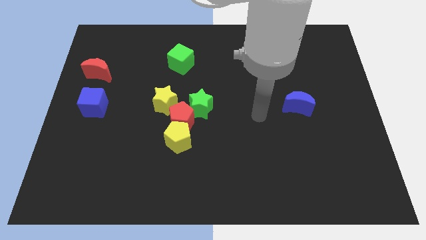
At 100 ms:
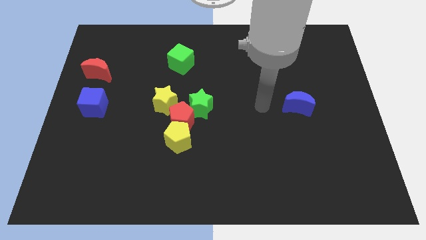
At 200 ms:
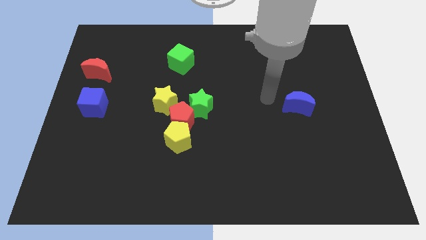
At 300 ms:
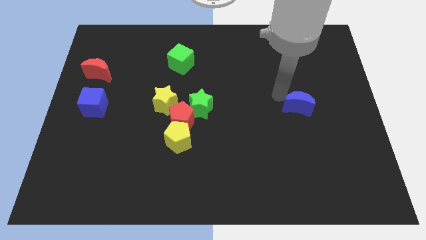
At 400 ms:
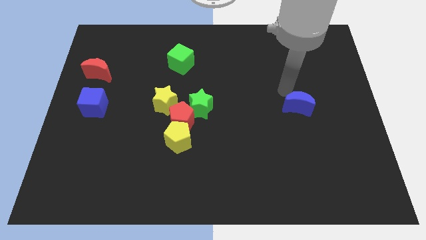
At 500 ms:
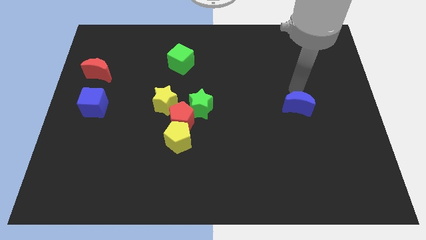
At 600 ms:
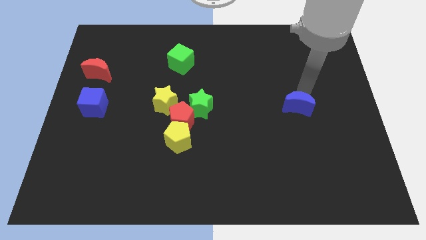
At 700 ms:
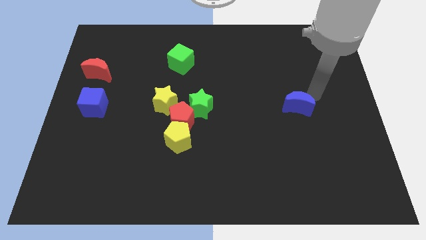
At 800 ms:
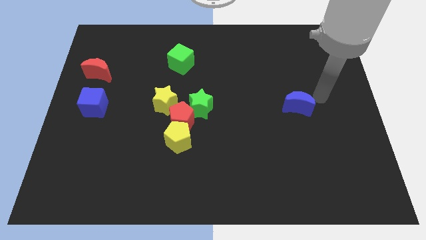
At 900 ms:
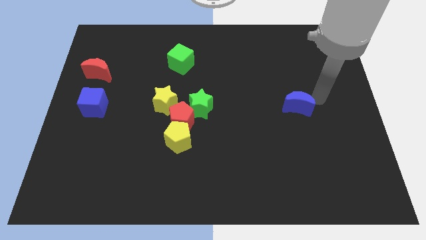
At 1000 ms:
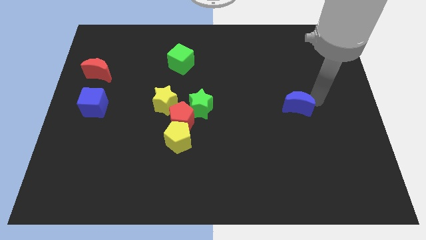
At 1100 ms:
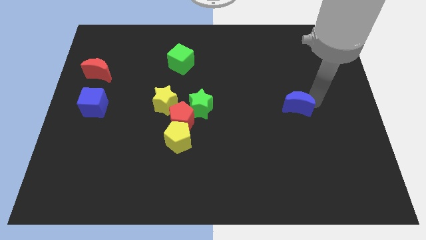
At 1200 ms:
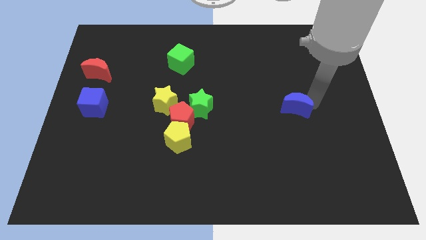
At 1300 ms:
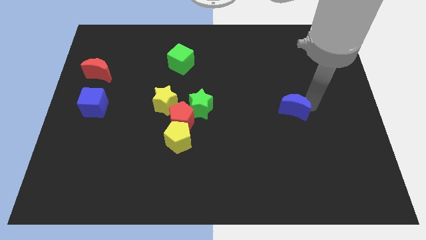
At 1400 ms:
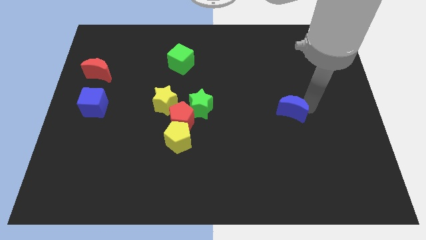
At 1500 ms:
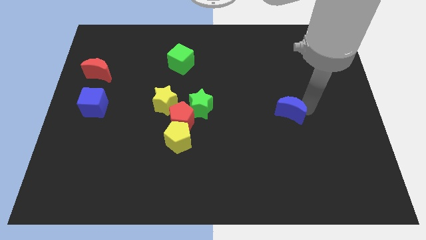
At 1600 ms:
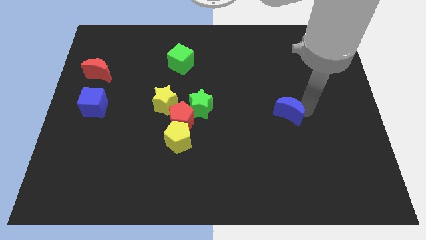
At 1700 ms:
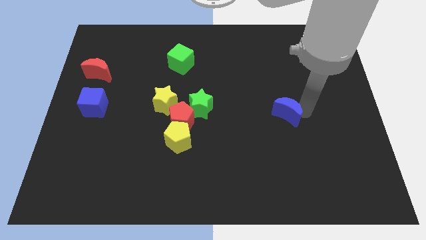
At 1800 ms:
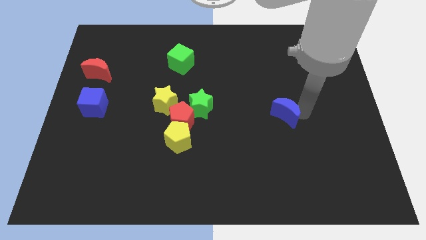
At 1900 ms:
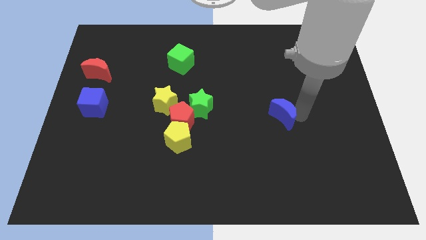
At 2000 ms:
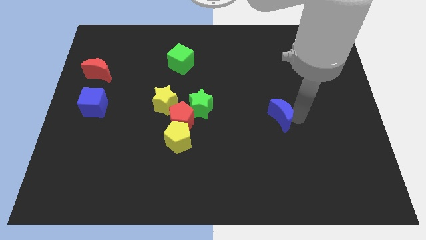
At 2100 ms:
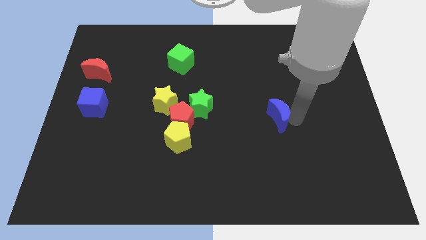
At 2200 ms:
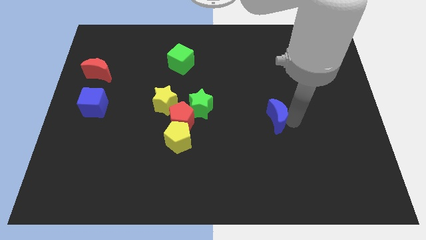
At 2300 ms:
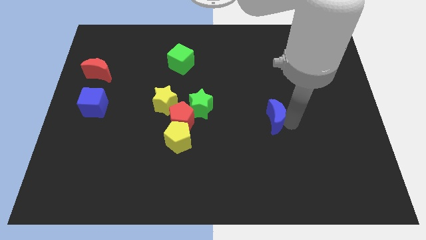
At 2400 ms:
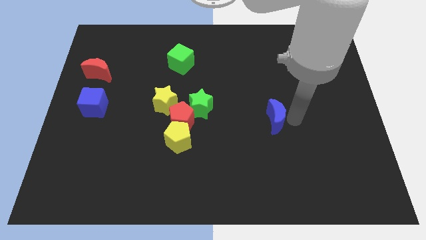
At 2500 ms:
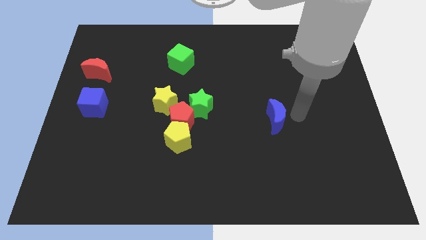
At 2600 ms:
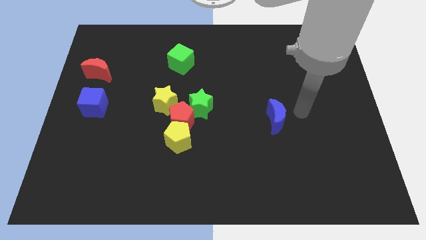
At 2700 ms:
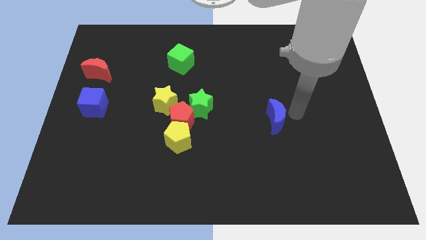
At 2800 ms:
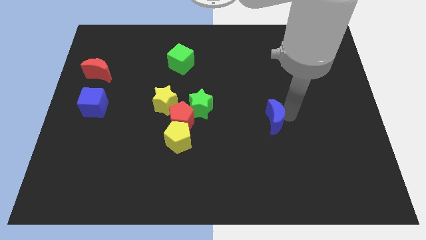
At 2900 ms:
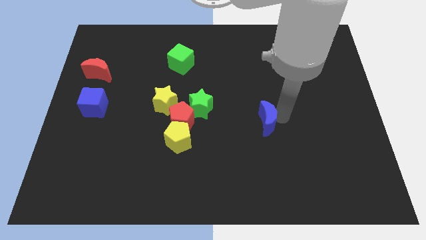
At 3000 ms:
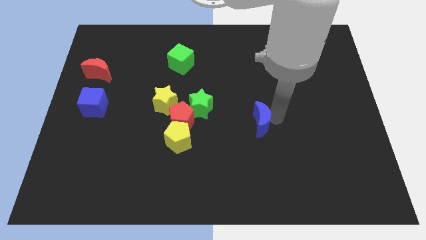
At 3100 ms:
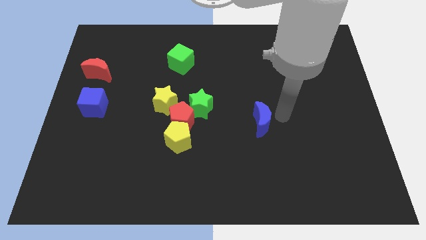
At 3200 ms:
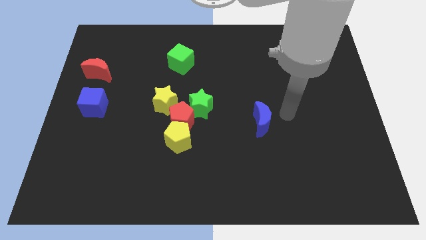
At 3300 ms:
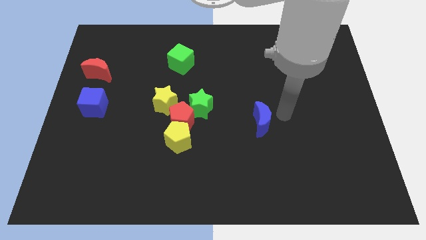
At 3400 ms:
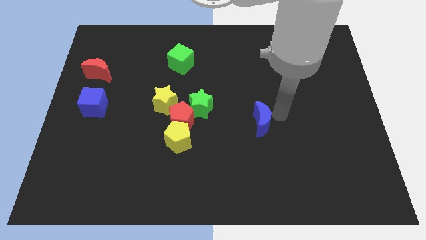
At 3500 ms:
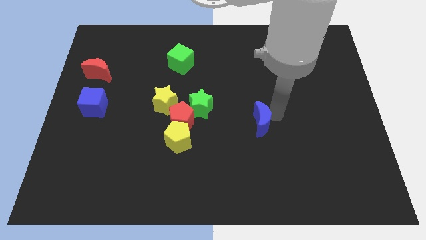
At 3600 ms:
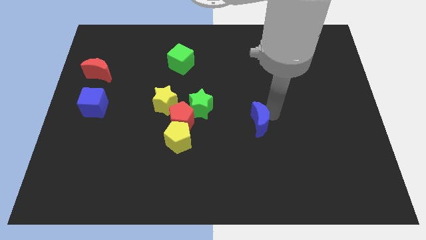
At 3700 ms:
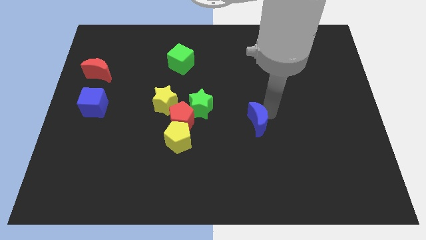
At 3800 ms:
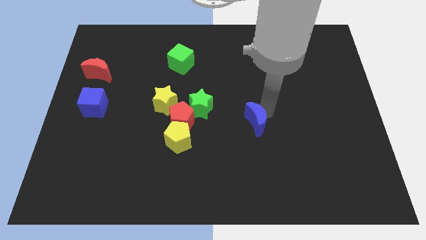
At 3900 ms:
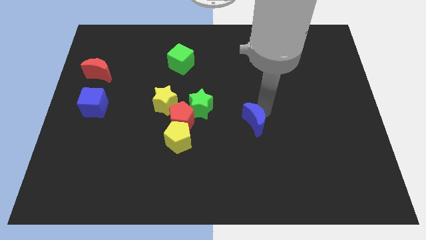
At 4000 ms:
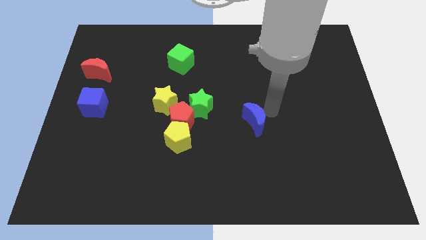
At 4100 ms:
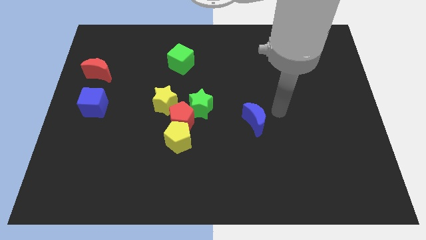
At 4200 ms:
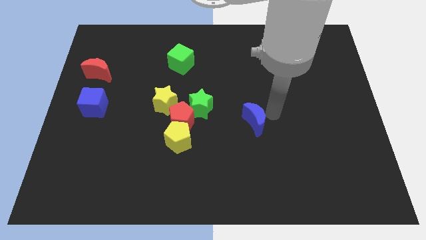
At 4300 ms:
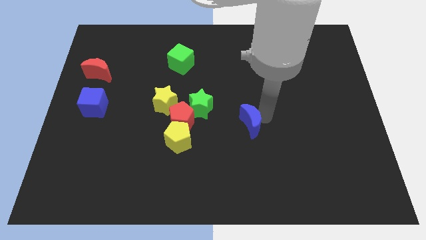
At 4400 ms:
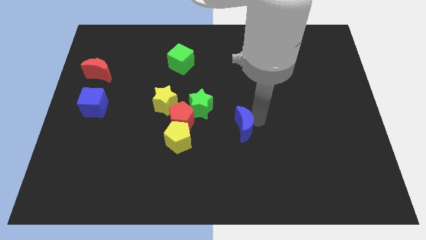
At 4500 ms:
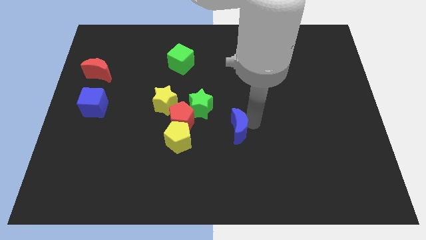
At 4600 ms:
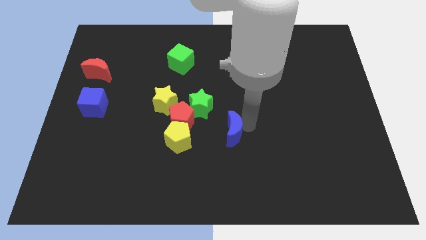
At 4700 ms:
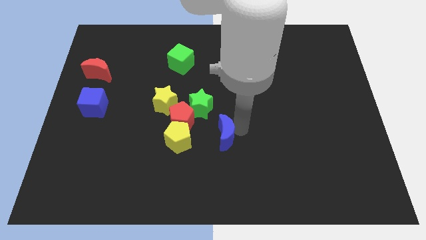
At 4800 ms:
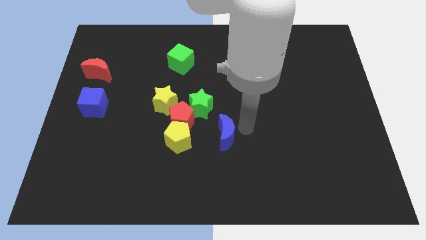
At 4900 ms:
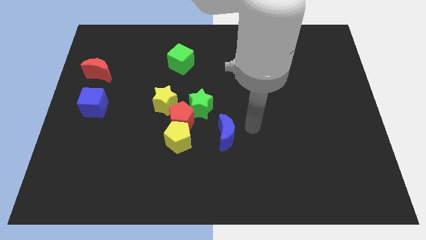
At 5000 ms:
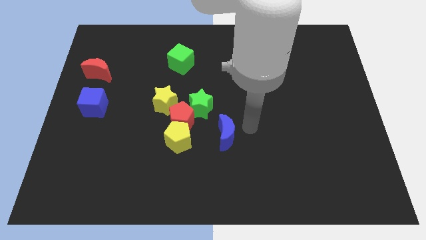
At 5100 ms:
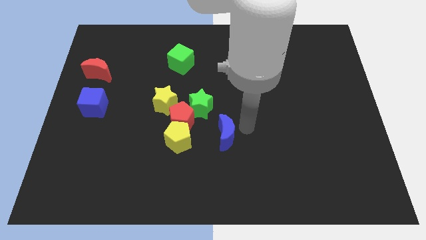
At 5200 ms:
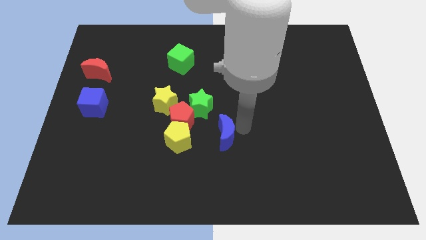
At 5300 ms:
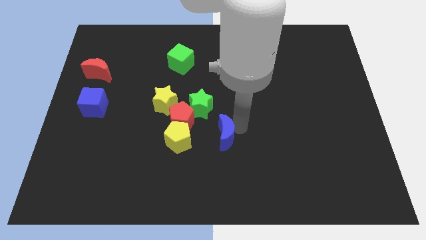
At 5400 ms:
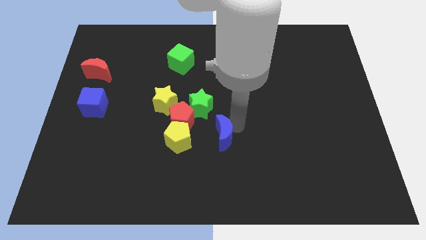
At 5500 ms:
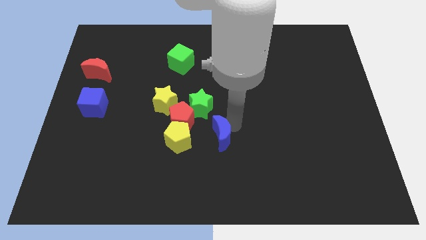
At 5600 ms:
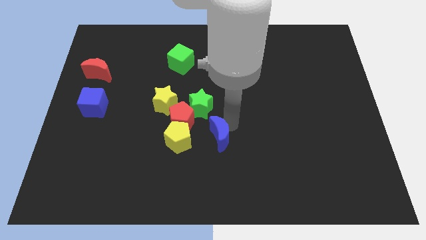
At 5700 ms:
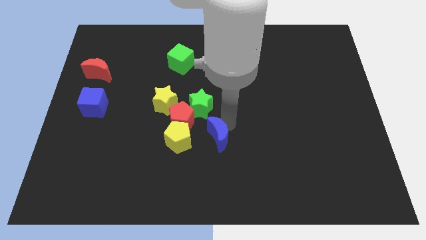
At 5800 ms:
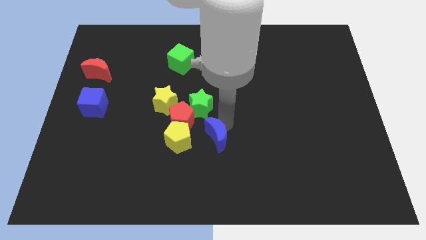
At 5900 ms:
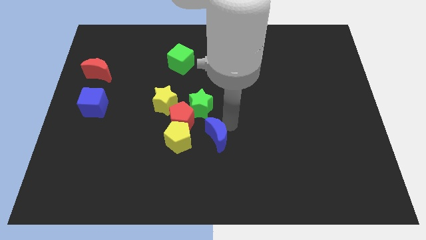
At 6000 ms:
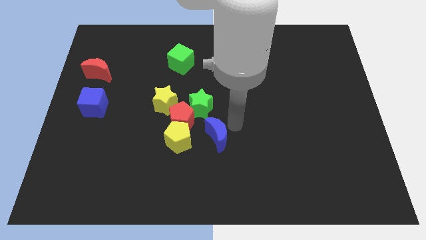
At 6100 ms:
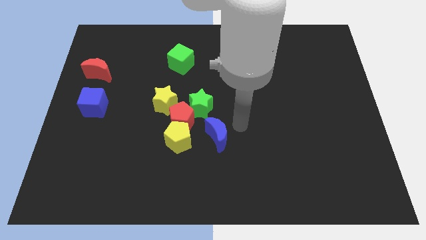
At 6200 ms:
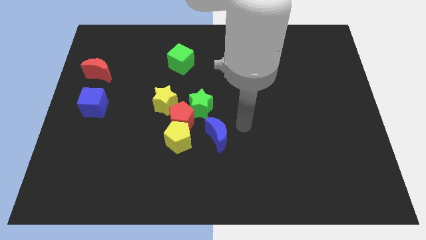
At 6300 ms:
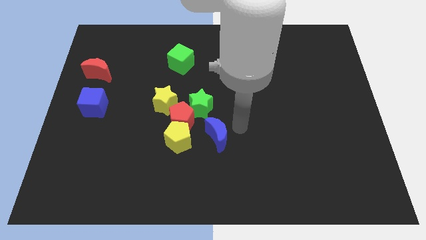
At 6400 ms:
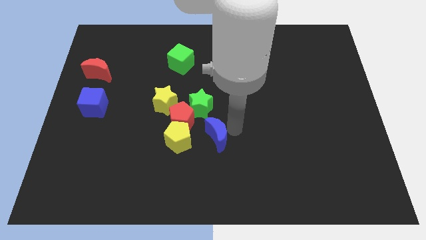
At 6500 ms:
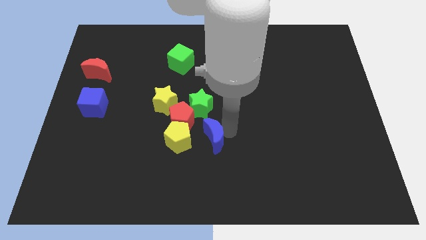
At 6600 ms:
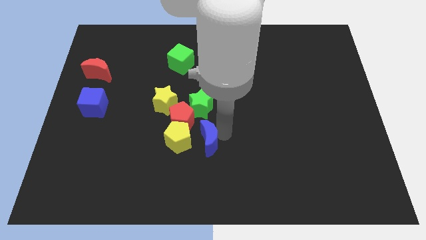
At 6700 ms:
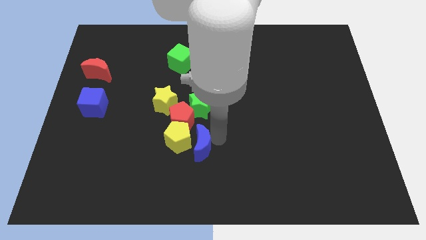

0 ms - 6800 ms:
push the blue moon to the yellow pentagon
